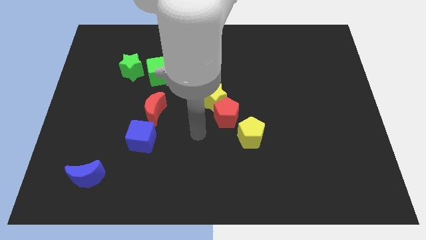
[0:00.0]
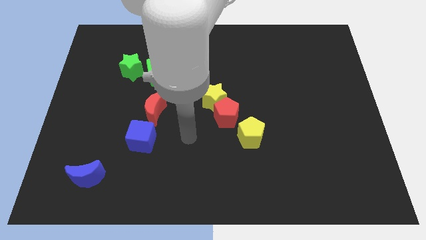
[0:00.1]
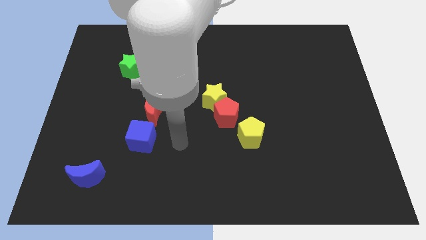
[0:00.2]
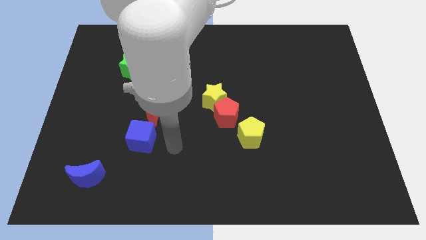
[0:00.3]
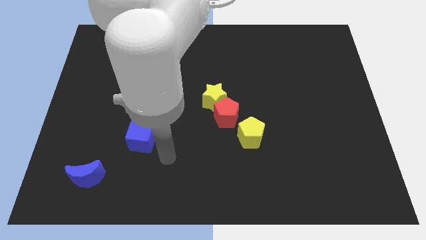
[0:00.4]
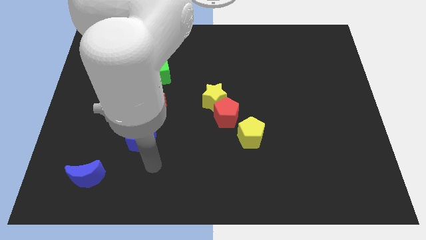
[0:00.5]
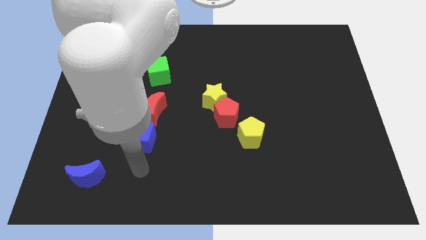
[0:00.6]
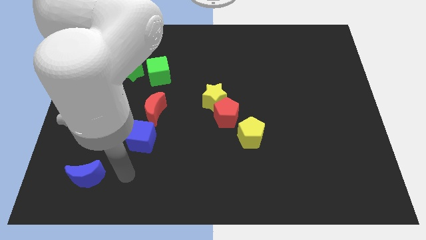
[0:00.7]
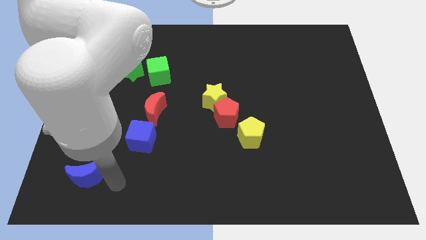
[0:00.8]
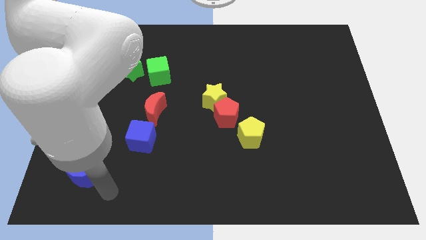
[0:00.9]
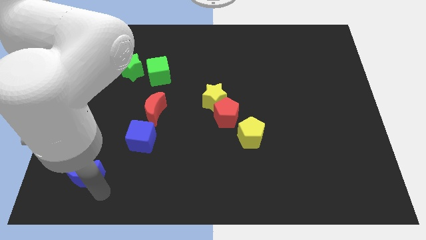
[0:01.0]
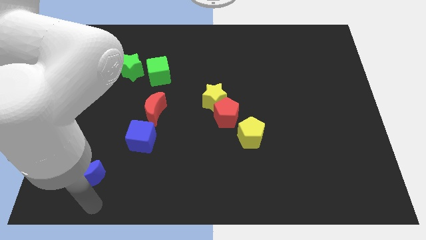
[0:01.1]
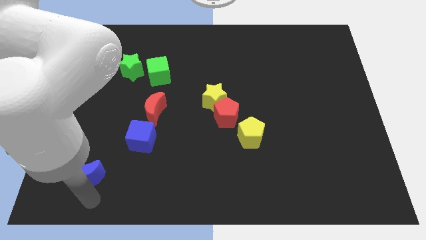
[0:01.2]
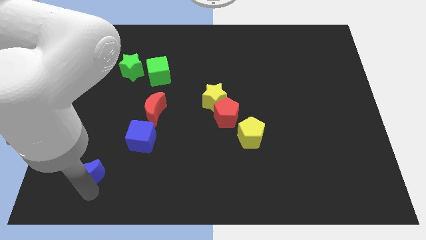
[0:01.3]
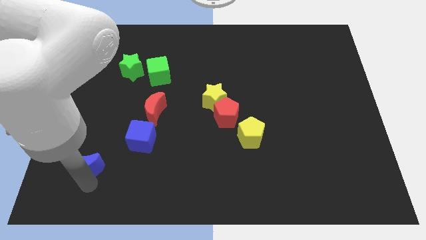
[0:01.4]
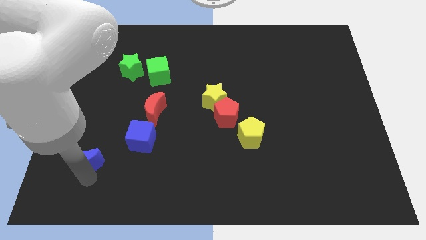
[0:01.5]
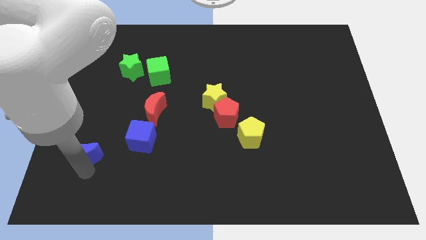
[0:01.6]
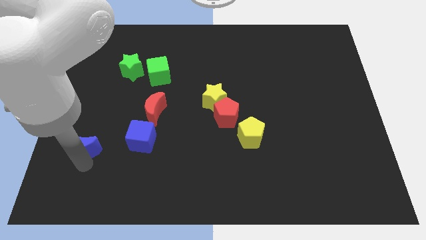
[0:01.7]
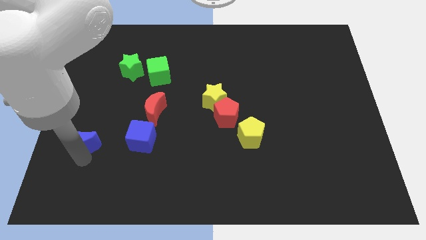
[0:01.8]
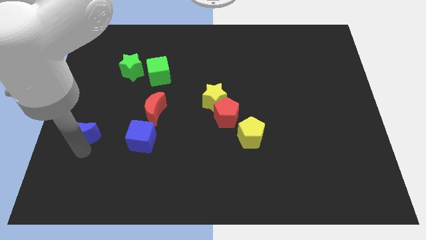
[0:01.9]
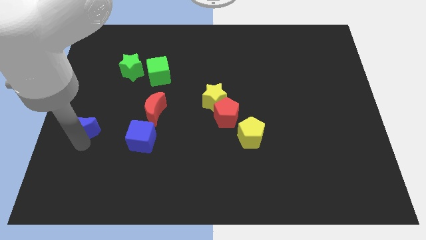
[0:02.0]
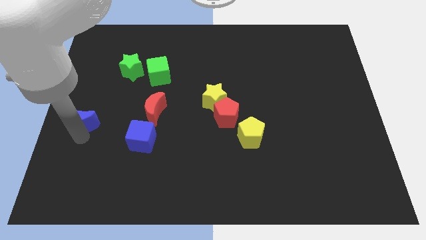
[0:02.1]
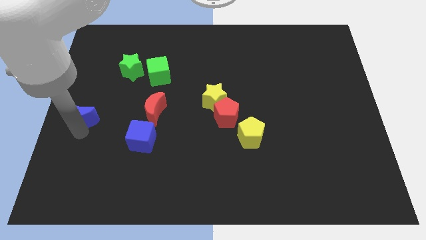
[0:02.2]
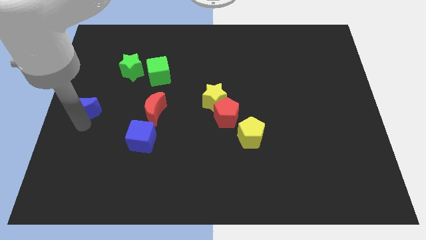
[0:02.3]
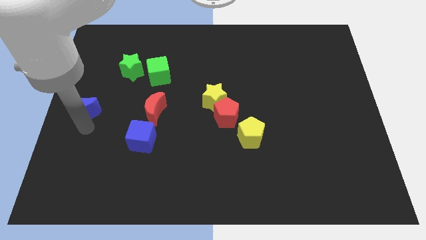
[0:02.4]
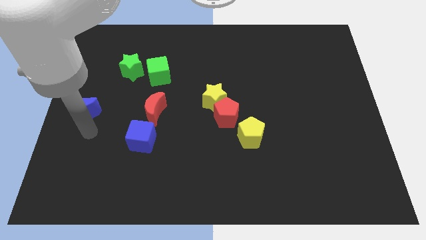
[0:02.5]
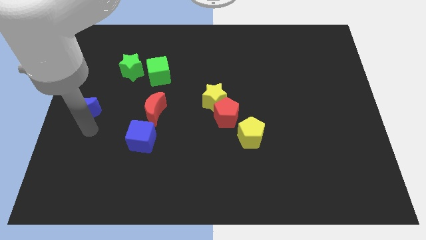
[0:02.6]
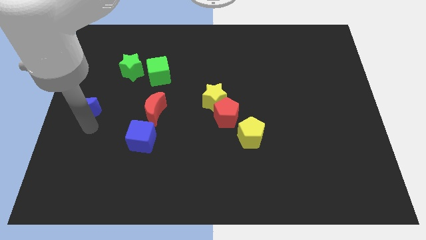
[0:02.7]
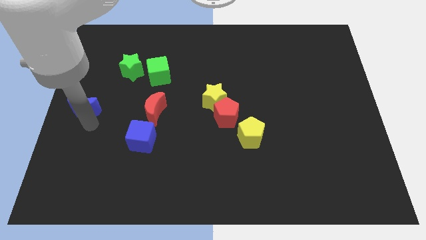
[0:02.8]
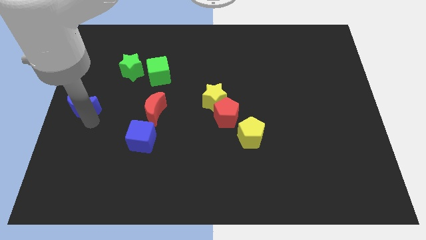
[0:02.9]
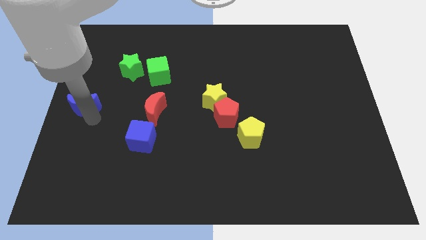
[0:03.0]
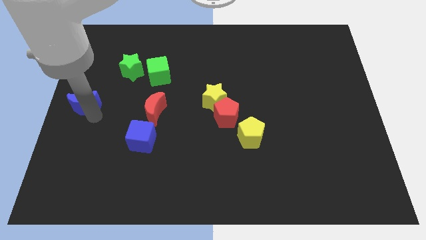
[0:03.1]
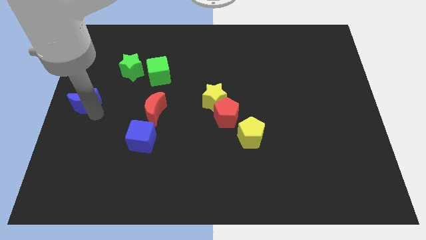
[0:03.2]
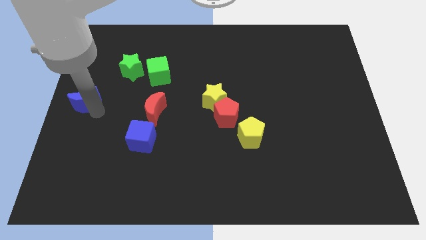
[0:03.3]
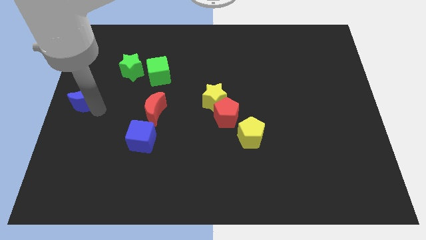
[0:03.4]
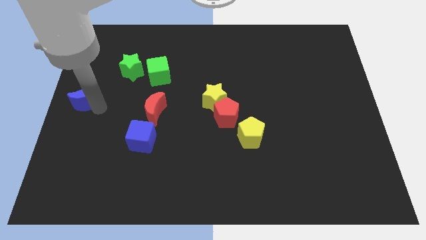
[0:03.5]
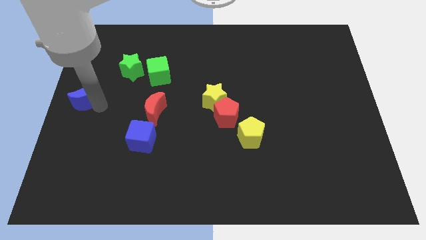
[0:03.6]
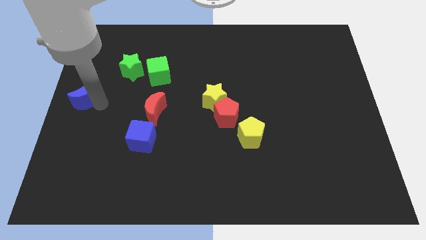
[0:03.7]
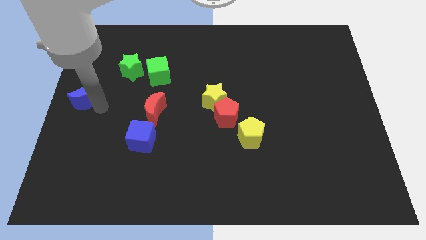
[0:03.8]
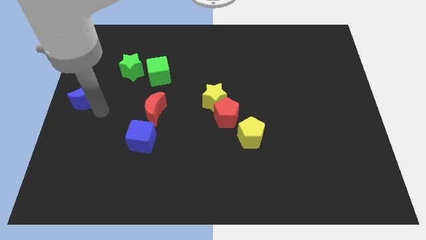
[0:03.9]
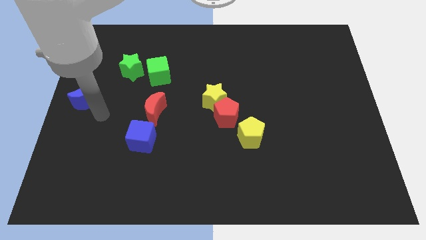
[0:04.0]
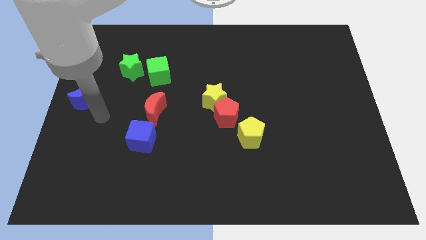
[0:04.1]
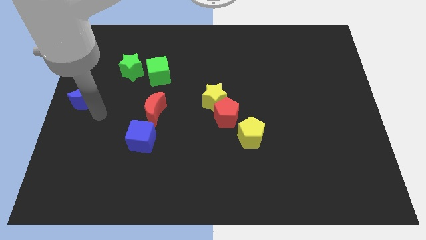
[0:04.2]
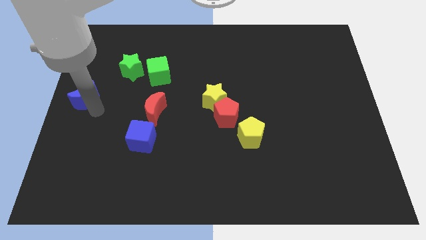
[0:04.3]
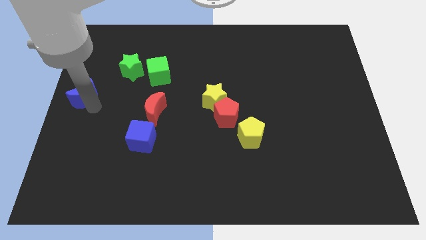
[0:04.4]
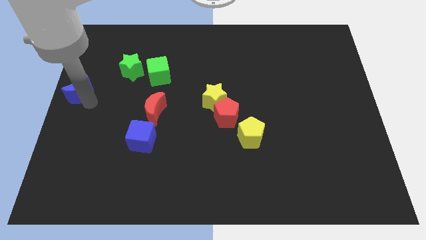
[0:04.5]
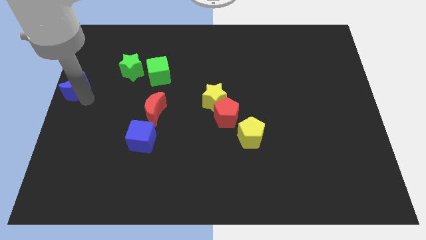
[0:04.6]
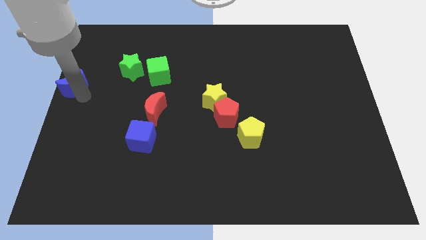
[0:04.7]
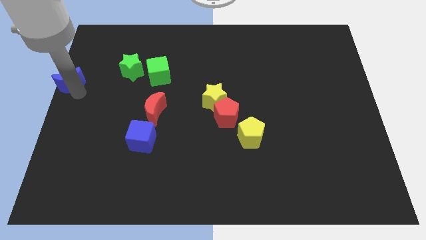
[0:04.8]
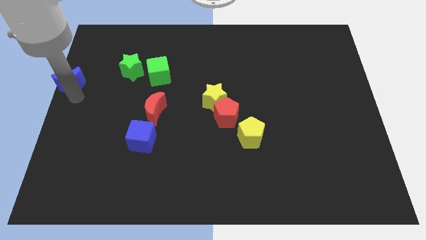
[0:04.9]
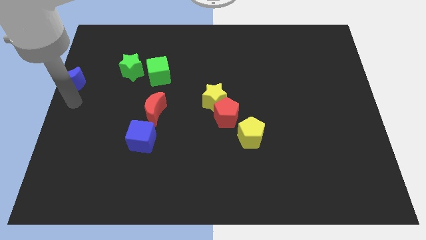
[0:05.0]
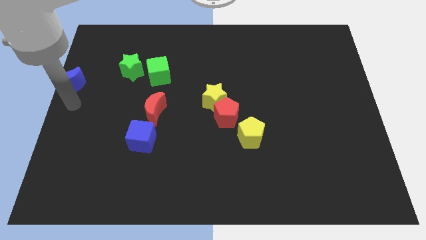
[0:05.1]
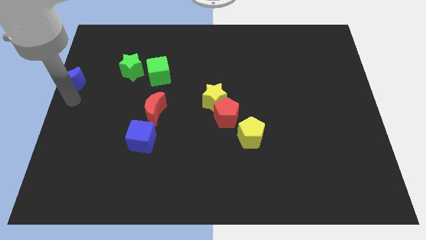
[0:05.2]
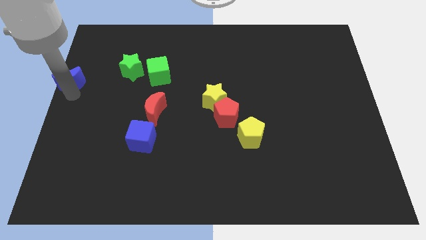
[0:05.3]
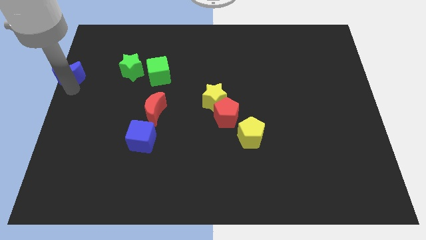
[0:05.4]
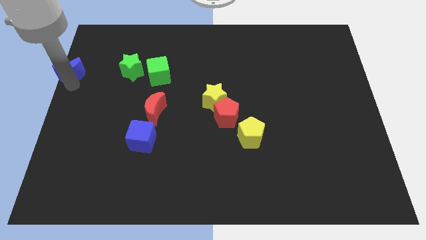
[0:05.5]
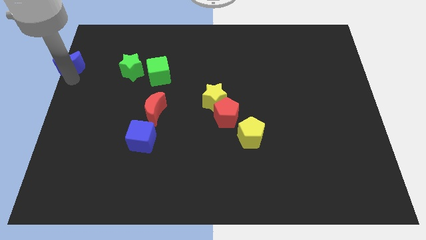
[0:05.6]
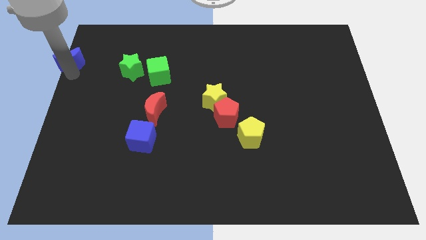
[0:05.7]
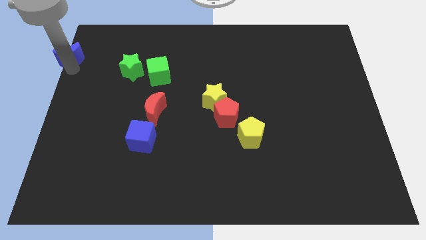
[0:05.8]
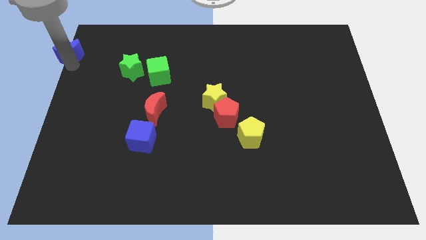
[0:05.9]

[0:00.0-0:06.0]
push the blue moon to the upper left corner
